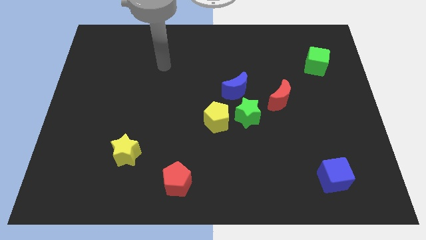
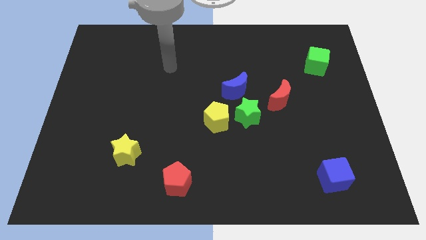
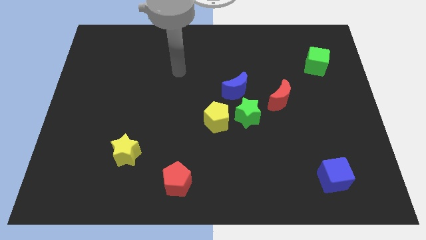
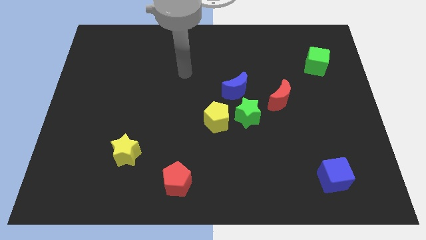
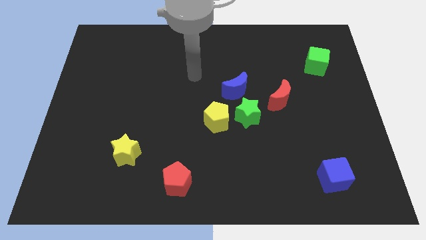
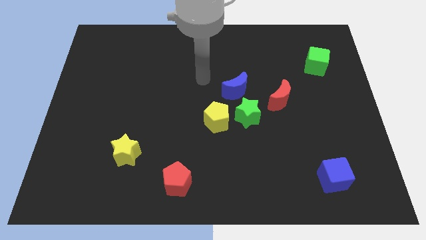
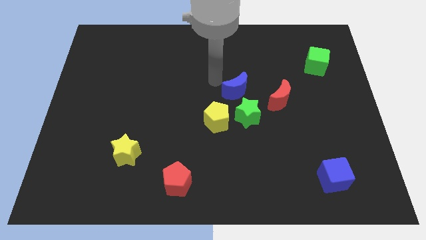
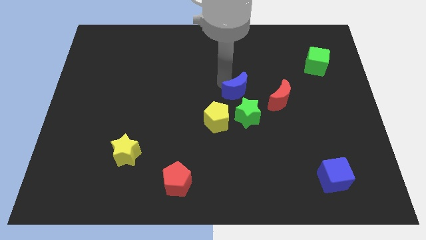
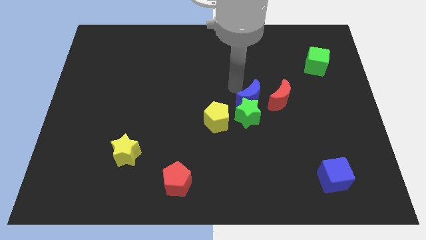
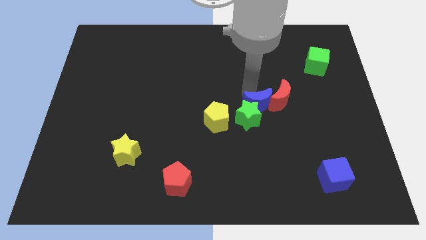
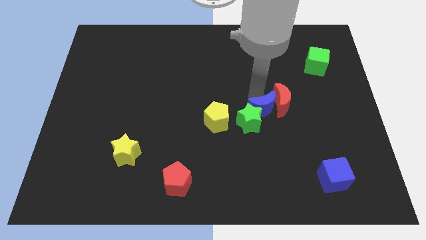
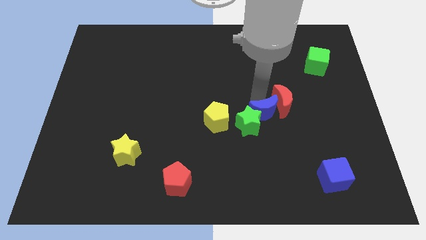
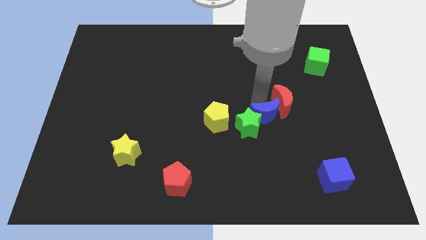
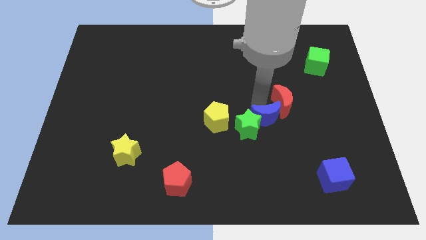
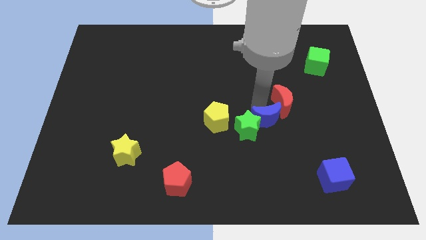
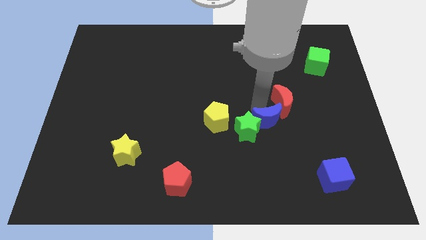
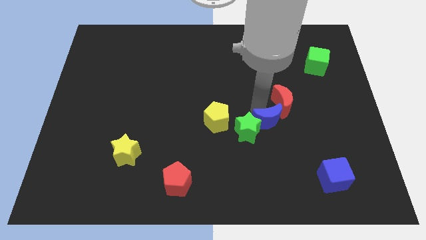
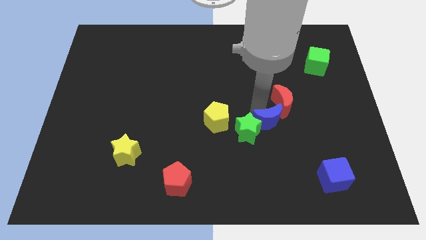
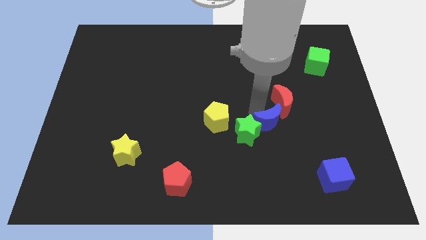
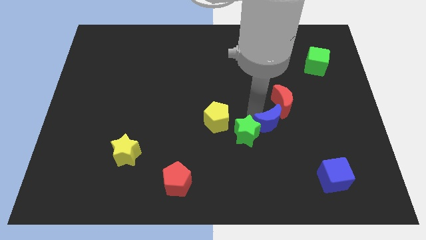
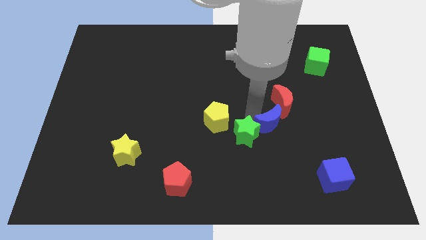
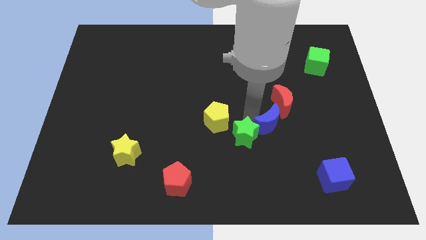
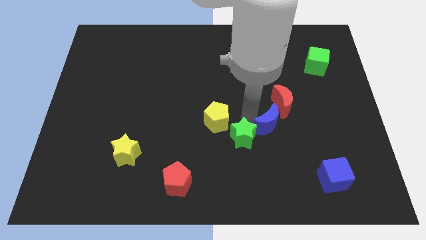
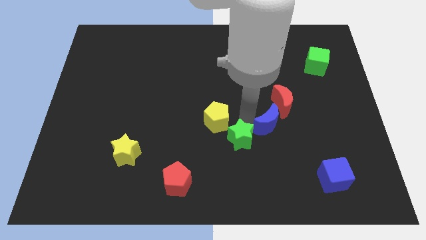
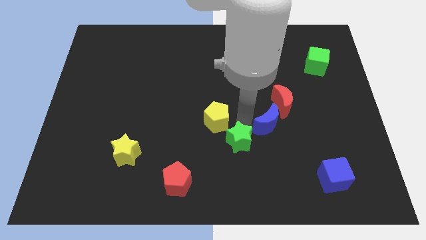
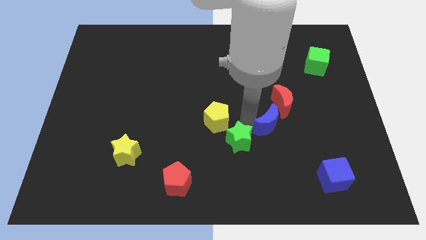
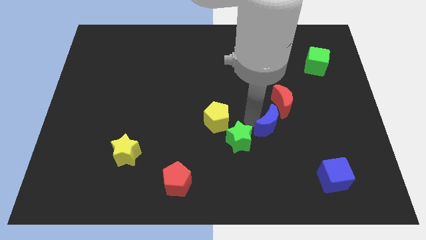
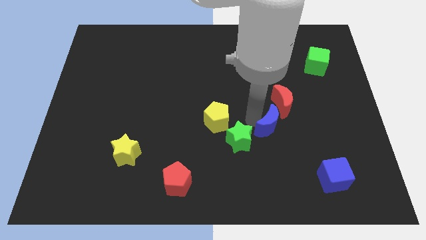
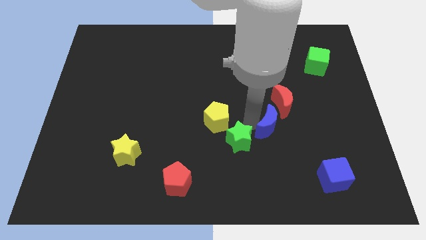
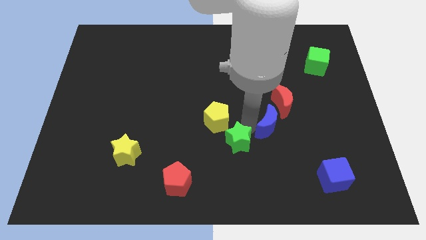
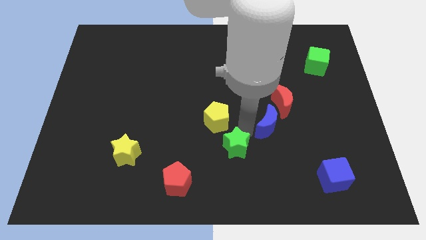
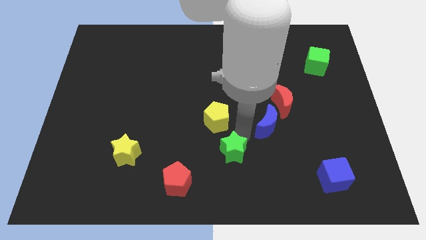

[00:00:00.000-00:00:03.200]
pull the green star apart from the group of blocks

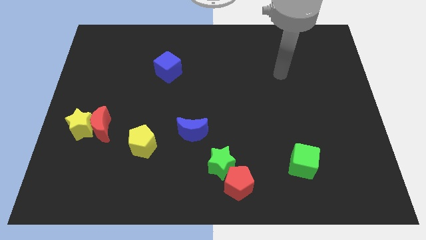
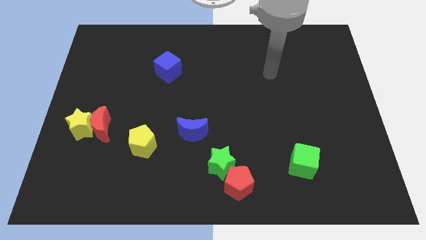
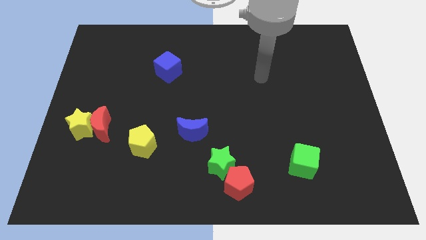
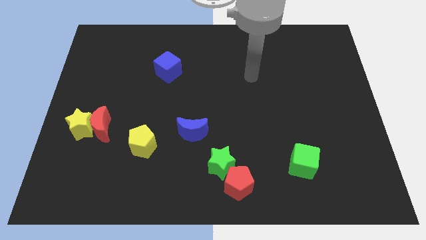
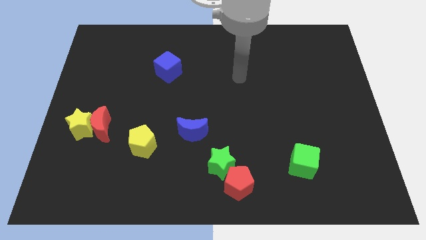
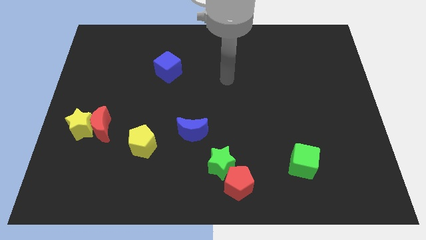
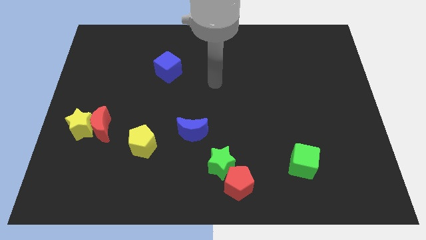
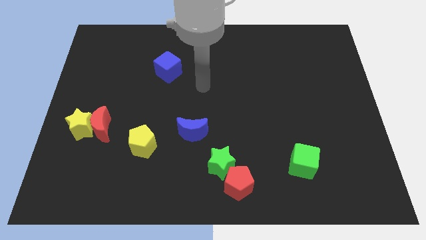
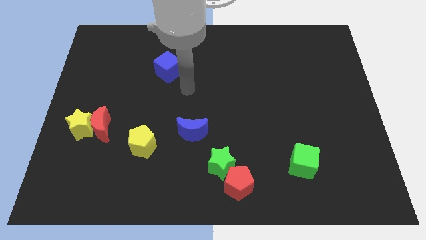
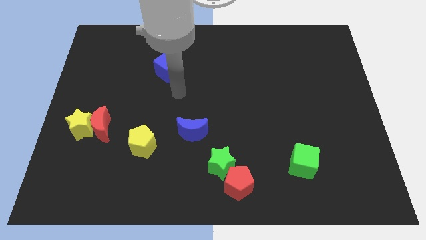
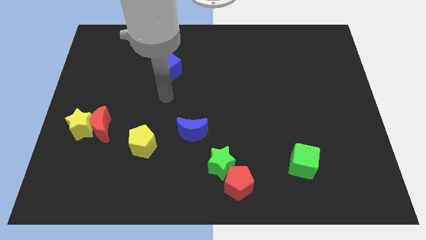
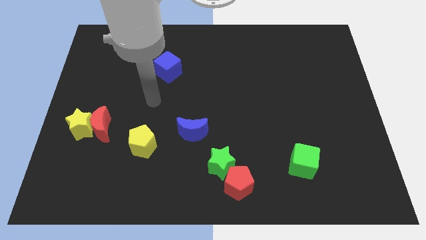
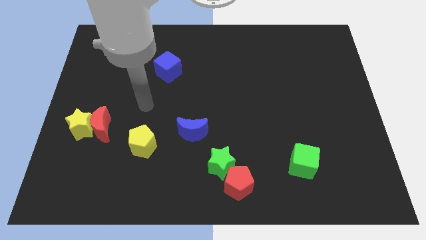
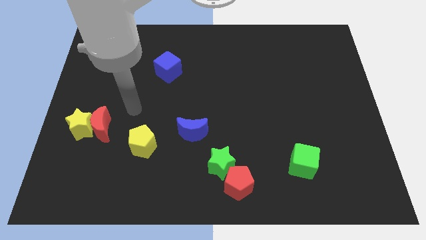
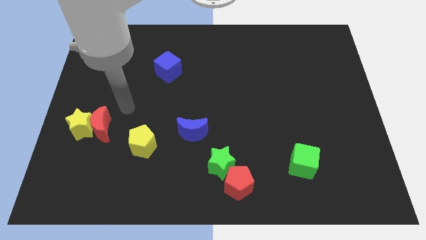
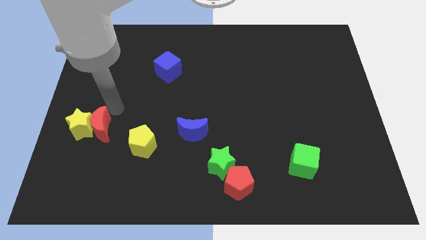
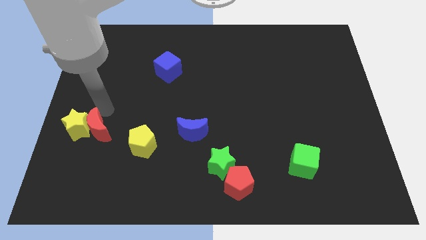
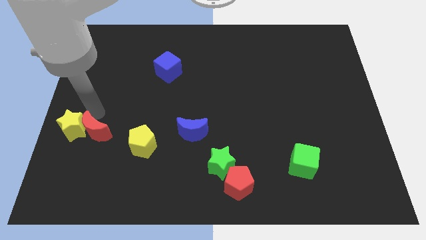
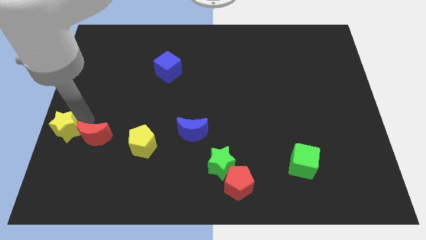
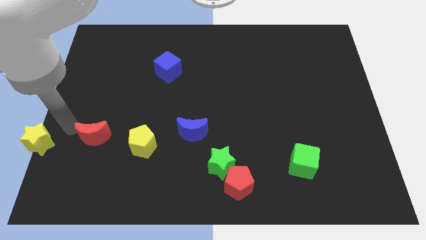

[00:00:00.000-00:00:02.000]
move the red moon away from the yellow star

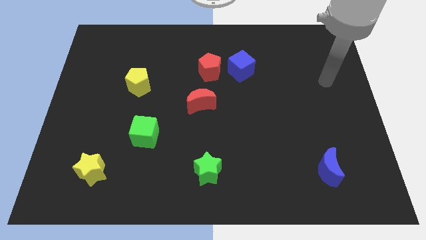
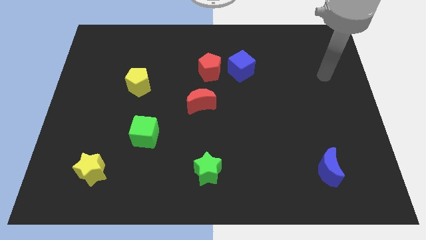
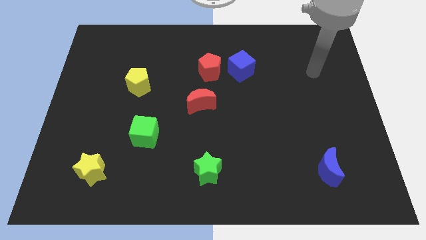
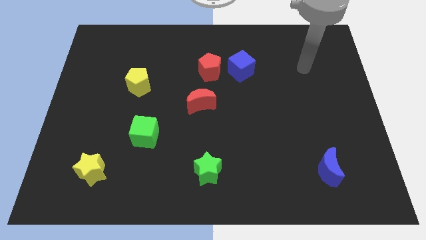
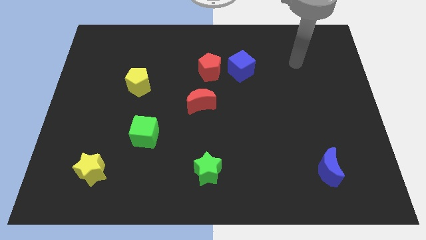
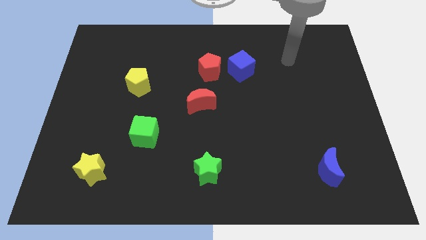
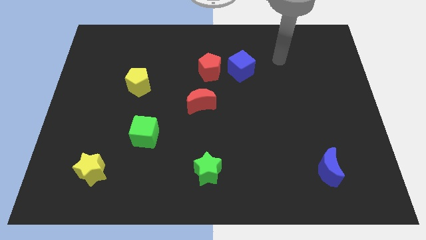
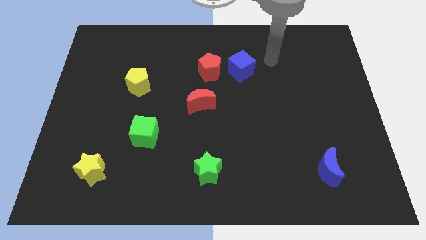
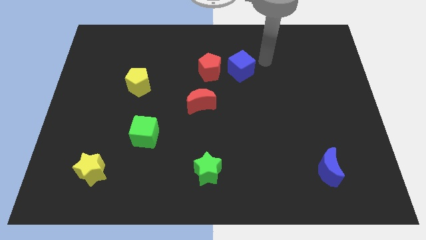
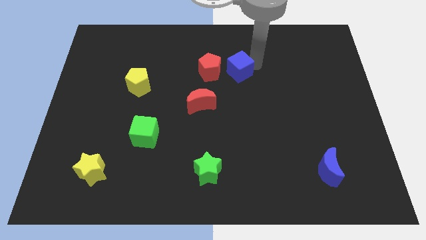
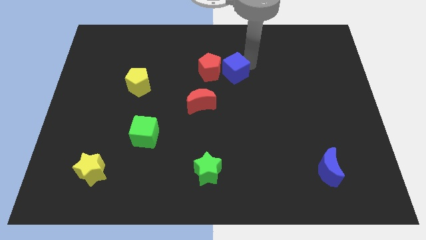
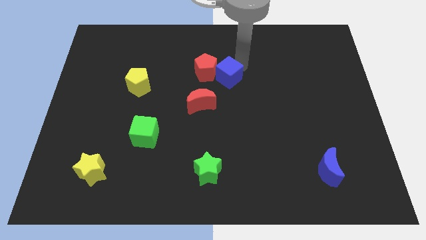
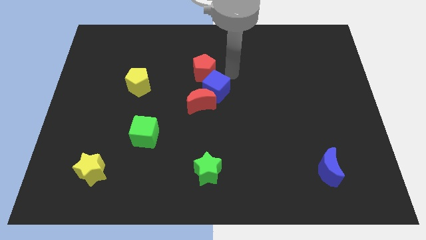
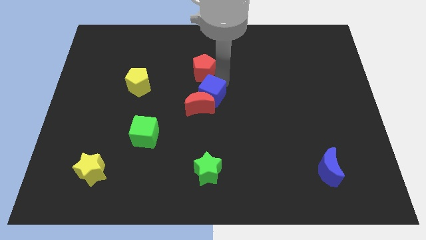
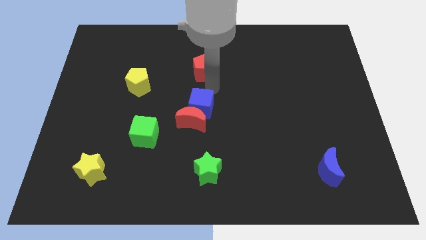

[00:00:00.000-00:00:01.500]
separate the red pentagon from the blue cube

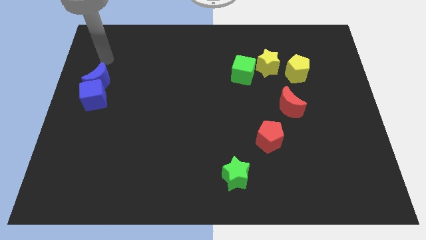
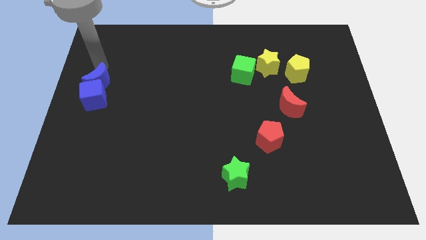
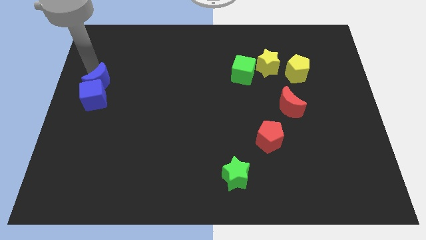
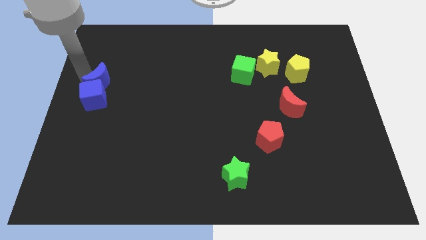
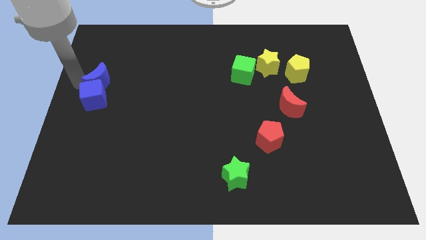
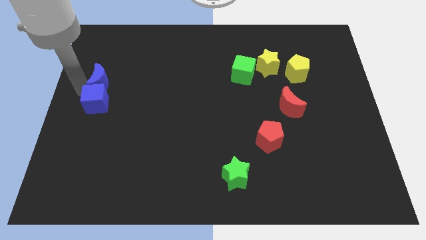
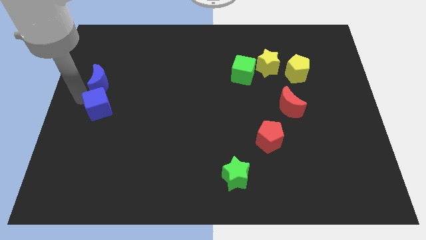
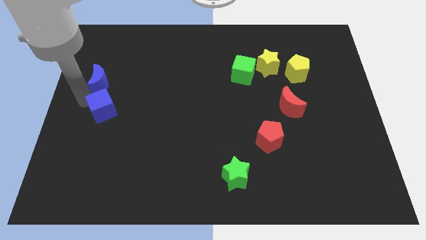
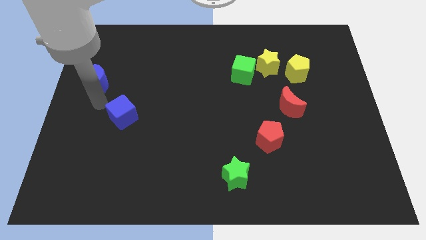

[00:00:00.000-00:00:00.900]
separate the blue moon from the blue cube

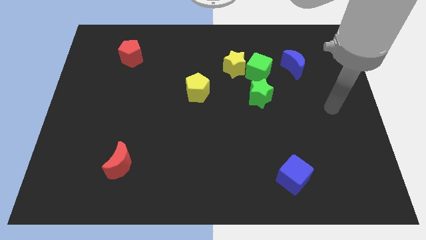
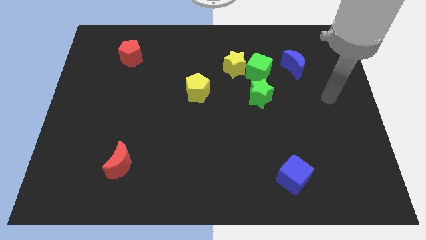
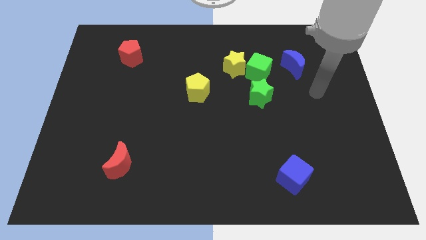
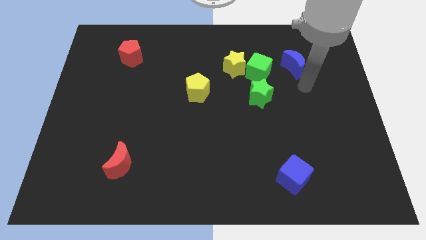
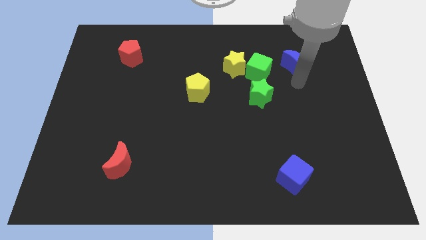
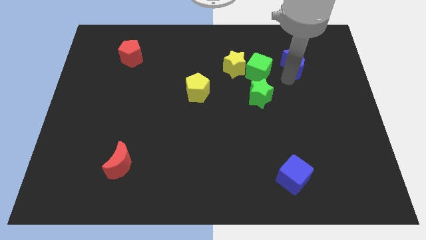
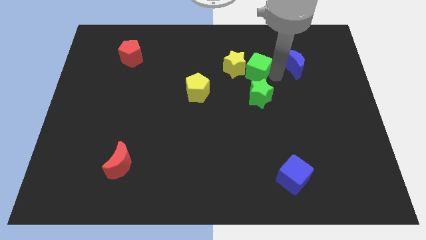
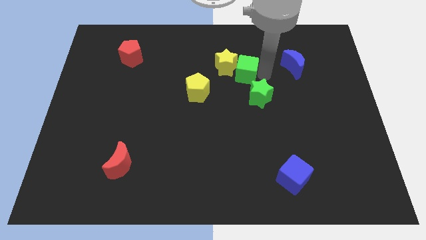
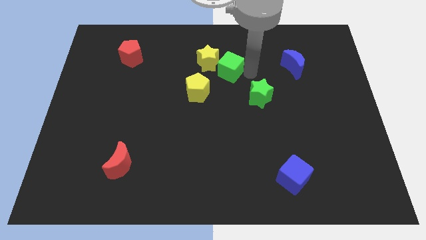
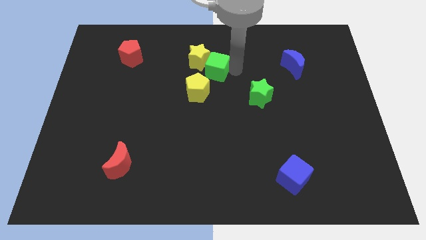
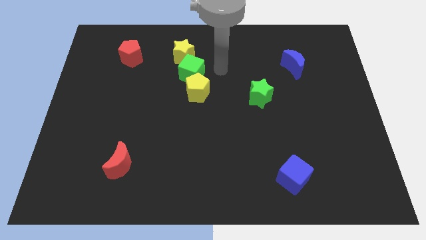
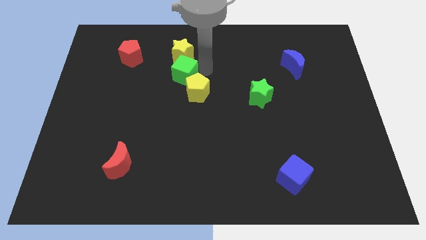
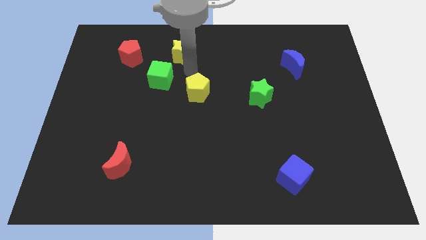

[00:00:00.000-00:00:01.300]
pull the yellow star apart from the green cube

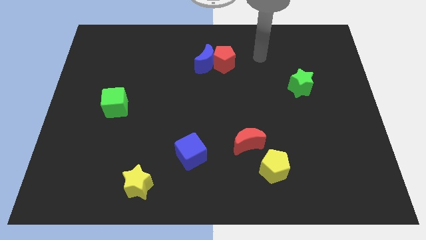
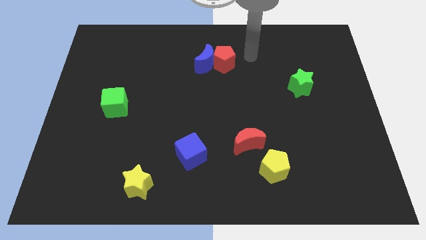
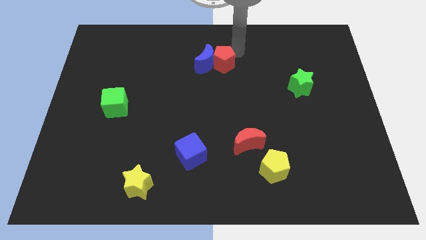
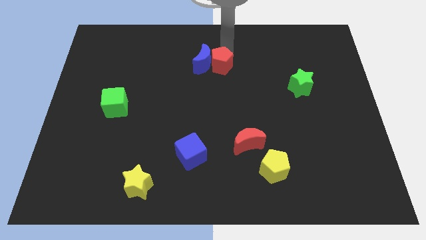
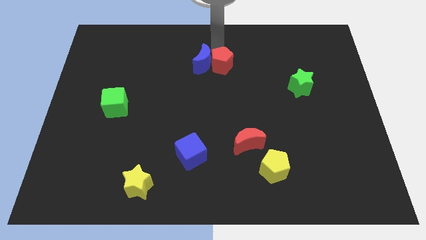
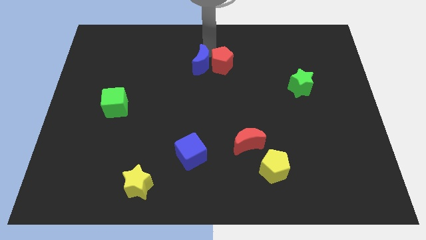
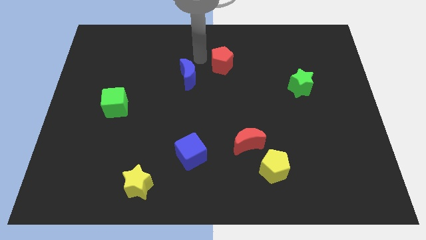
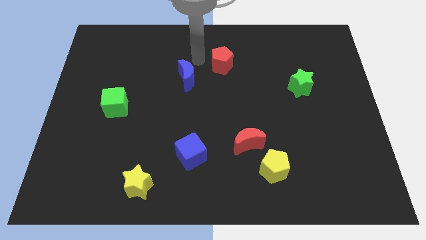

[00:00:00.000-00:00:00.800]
move the red pentagon away from the blue moon
